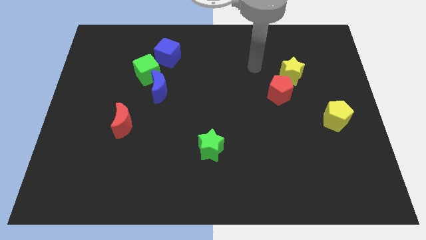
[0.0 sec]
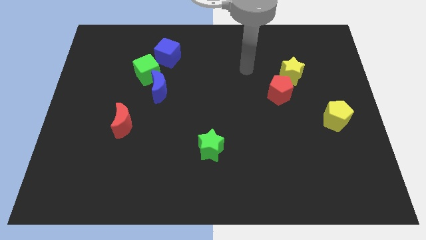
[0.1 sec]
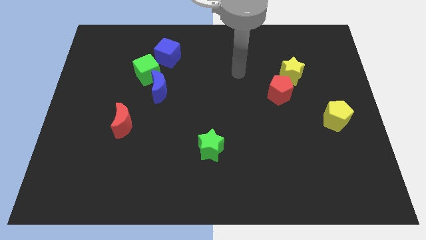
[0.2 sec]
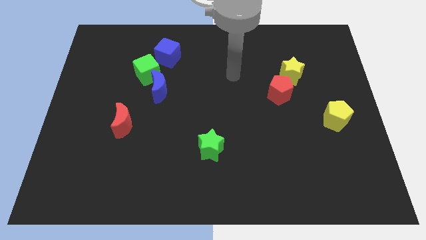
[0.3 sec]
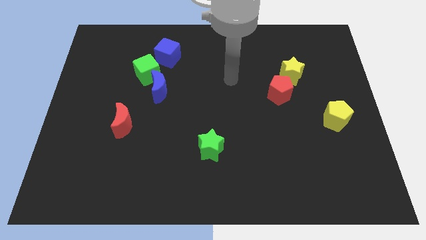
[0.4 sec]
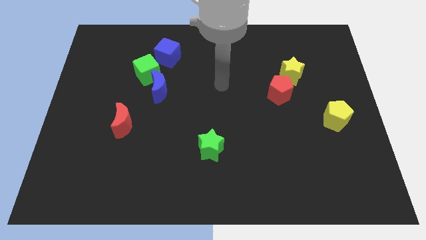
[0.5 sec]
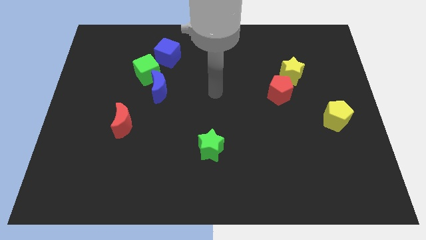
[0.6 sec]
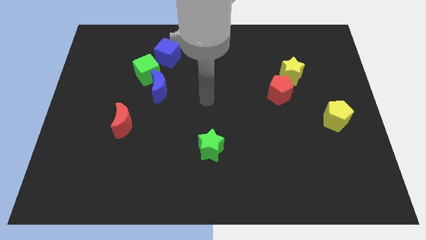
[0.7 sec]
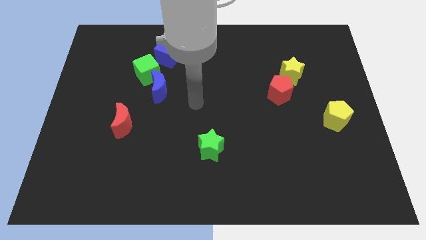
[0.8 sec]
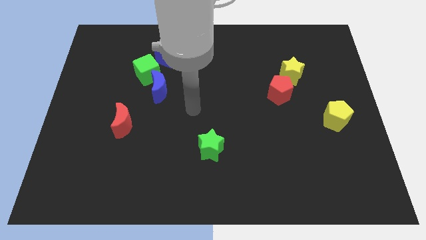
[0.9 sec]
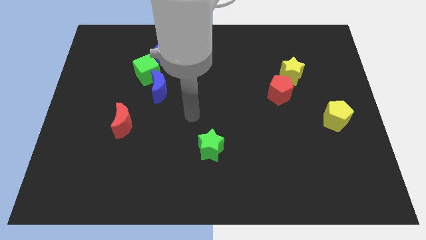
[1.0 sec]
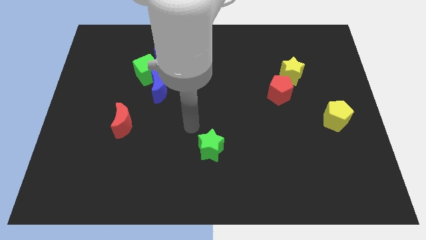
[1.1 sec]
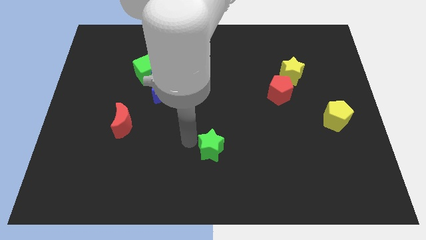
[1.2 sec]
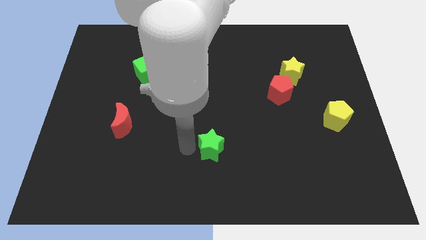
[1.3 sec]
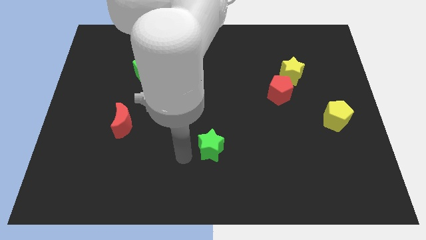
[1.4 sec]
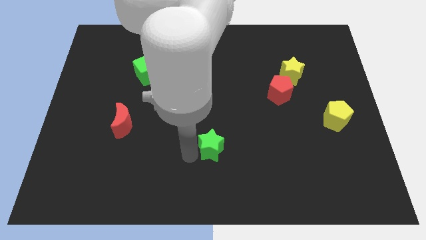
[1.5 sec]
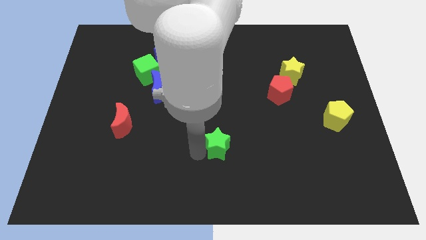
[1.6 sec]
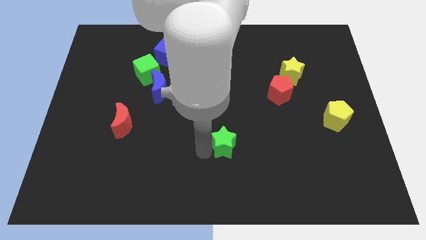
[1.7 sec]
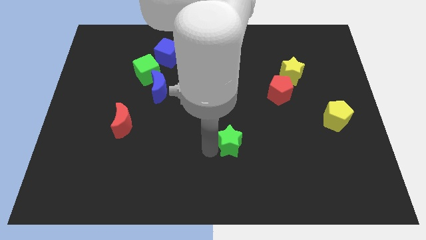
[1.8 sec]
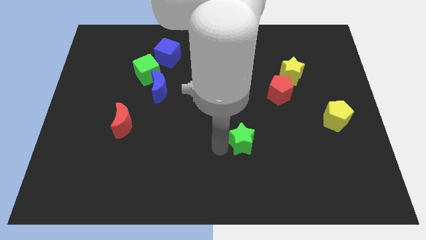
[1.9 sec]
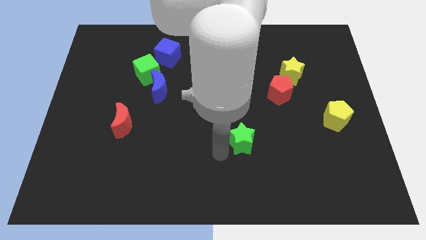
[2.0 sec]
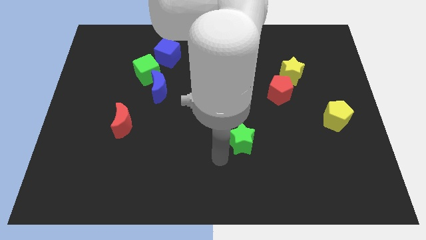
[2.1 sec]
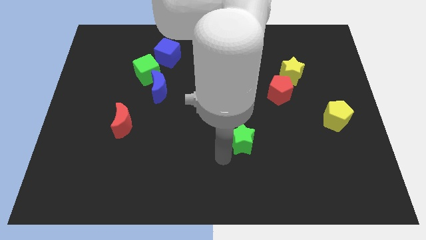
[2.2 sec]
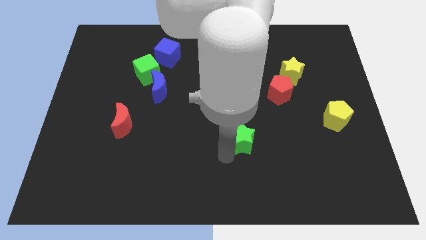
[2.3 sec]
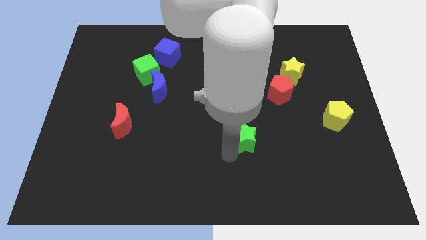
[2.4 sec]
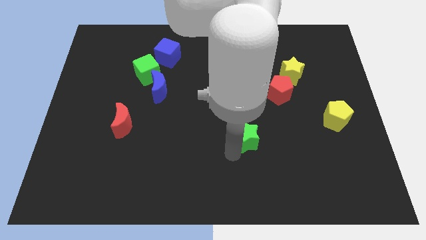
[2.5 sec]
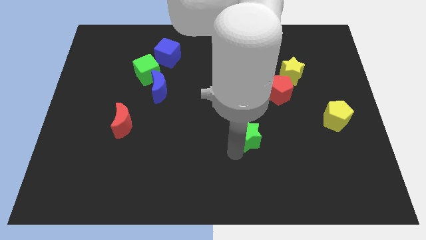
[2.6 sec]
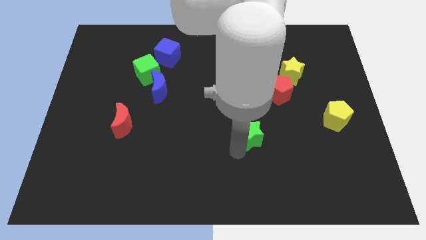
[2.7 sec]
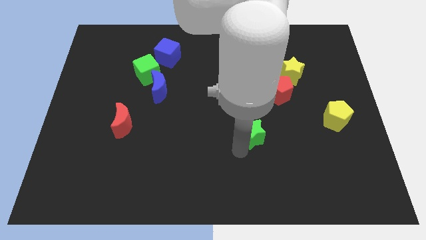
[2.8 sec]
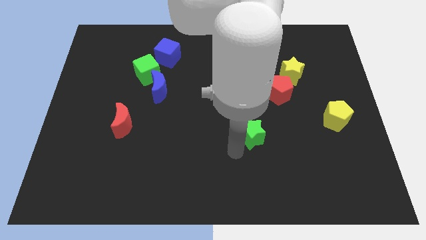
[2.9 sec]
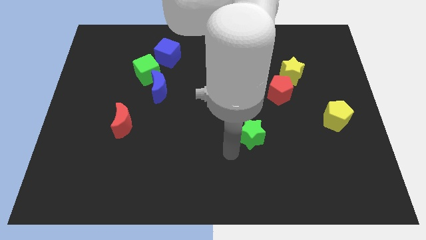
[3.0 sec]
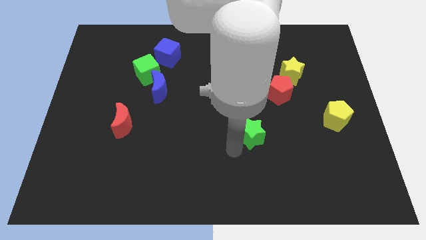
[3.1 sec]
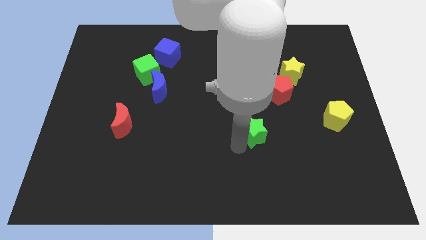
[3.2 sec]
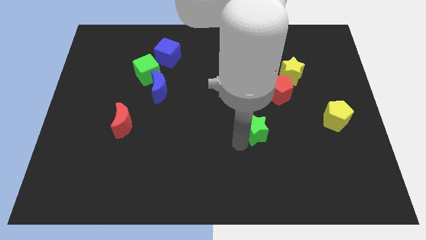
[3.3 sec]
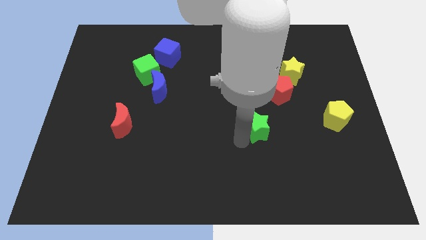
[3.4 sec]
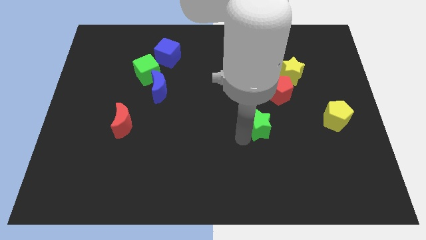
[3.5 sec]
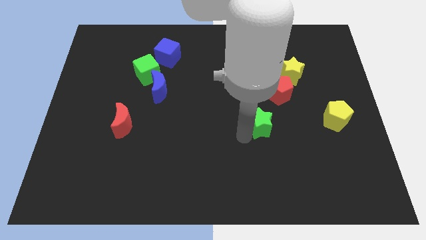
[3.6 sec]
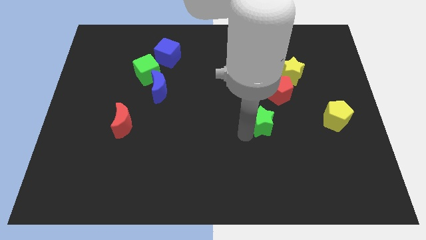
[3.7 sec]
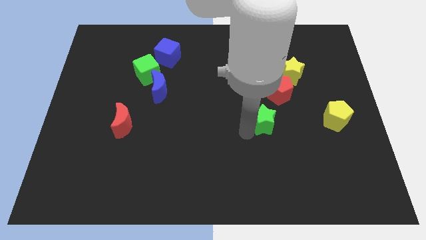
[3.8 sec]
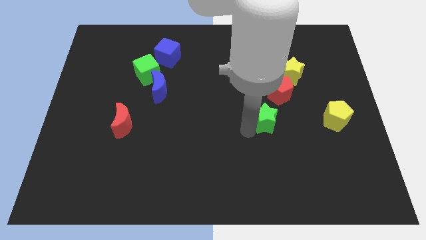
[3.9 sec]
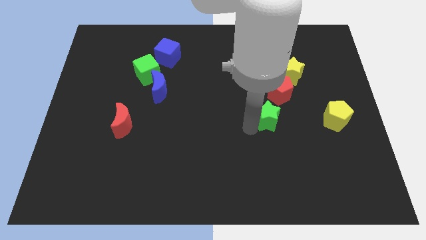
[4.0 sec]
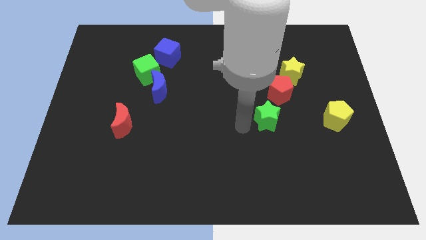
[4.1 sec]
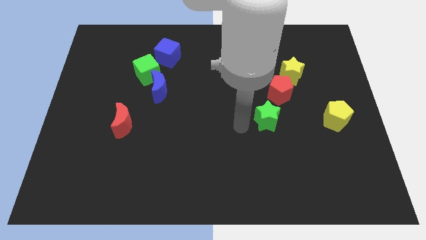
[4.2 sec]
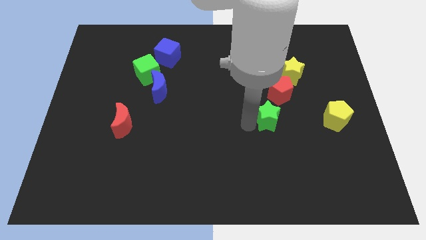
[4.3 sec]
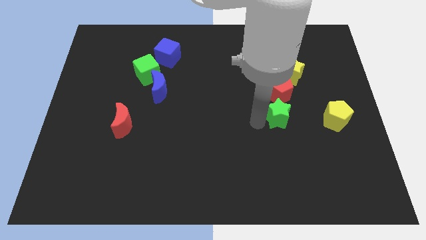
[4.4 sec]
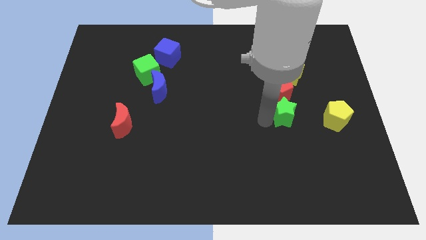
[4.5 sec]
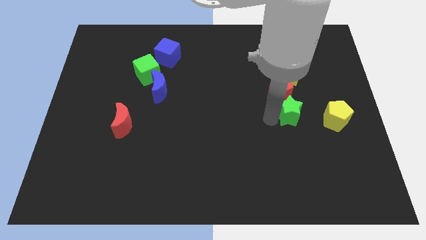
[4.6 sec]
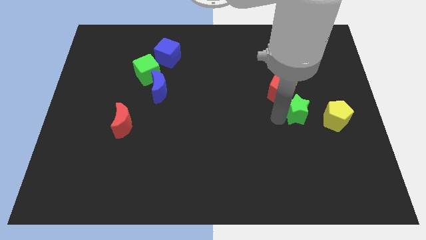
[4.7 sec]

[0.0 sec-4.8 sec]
move the green star to the top left of the yellow pentagon

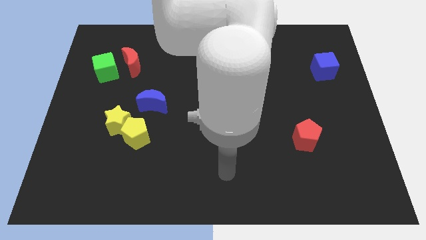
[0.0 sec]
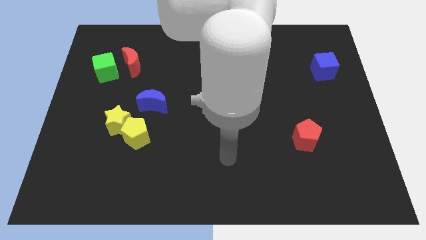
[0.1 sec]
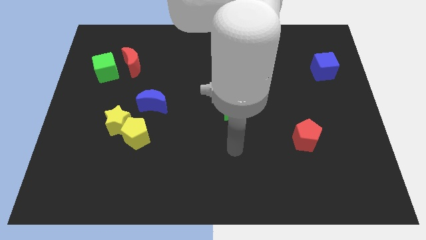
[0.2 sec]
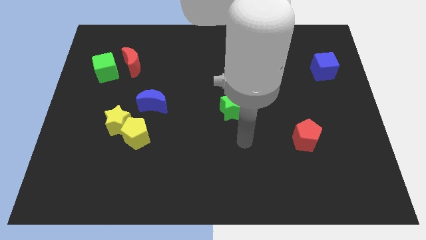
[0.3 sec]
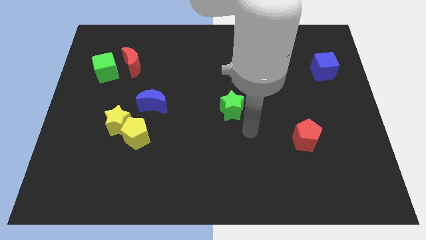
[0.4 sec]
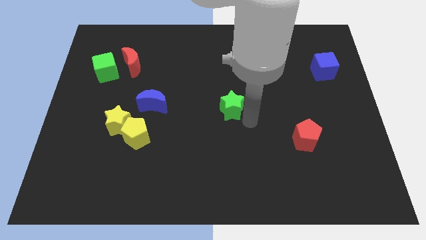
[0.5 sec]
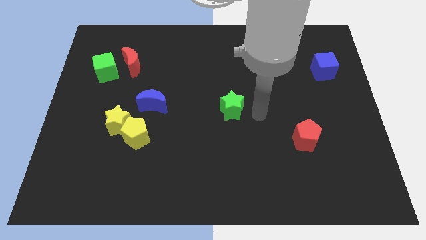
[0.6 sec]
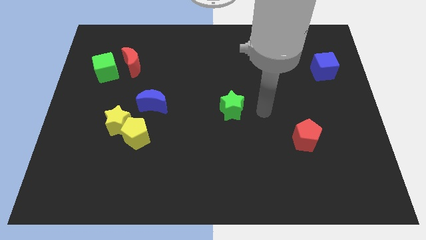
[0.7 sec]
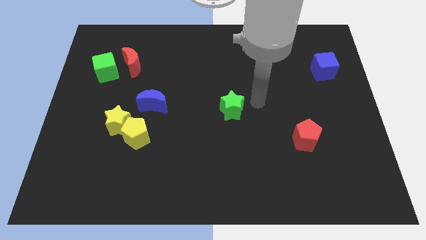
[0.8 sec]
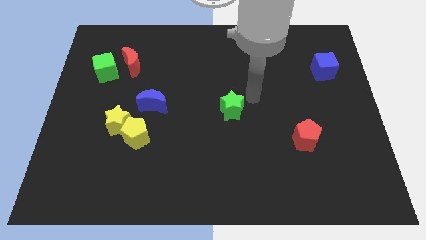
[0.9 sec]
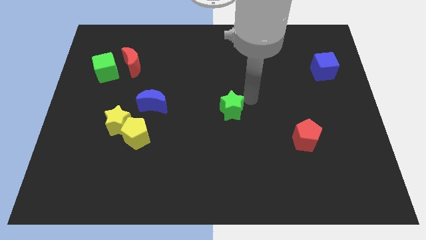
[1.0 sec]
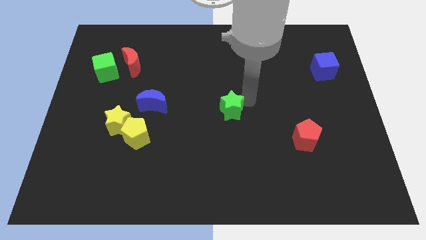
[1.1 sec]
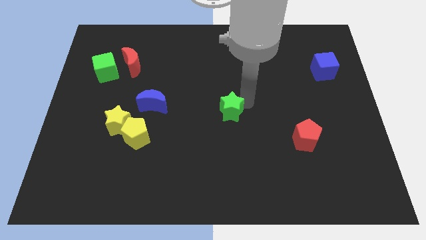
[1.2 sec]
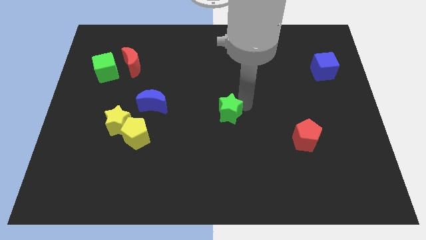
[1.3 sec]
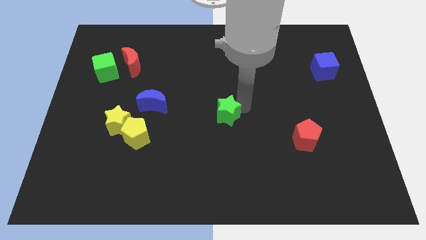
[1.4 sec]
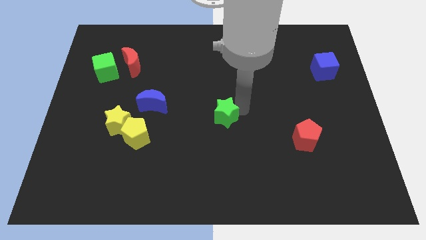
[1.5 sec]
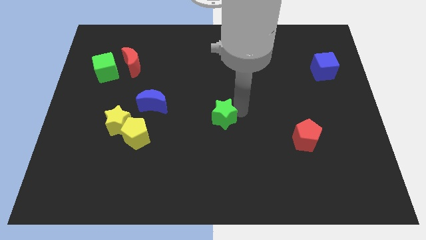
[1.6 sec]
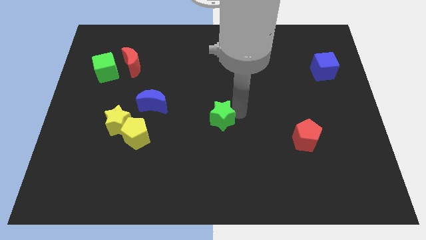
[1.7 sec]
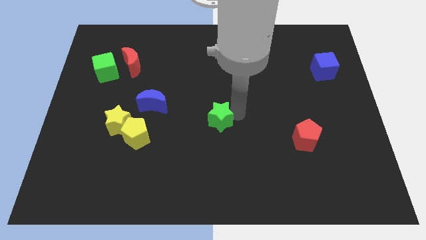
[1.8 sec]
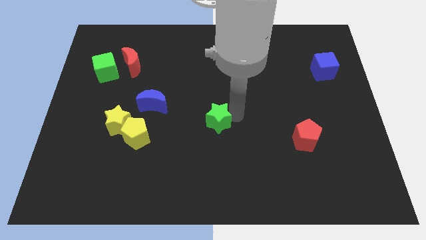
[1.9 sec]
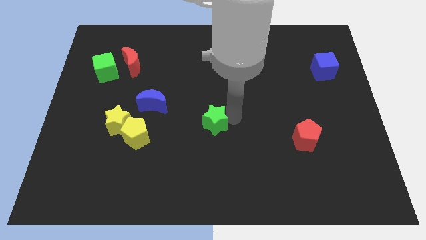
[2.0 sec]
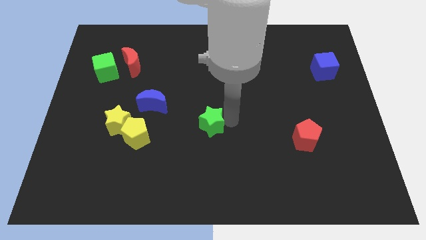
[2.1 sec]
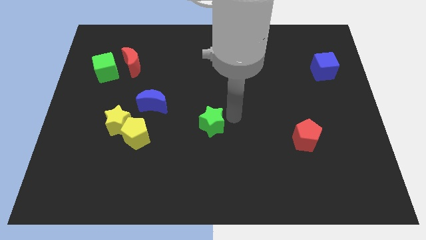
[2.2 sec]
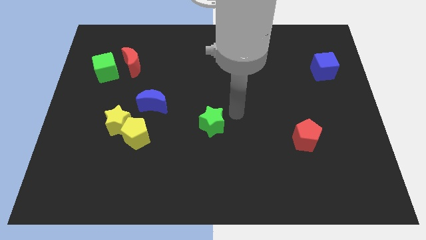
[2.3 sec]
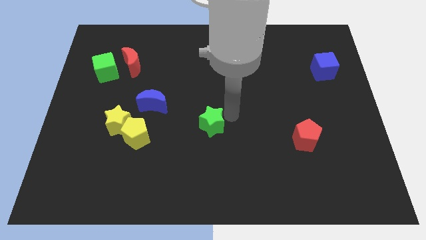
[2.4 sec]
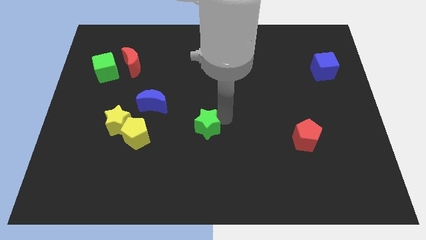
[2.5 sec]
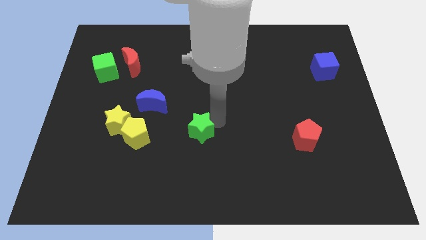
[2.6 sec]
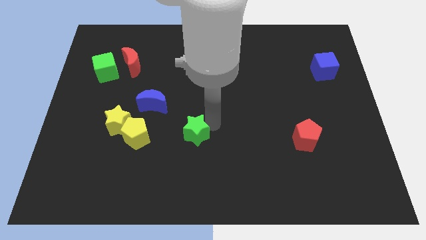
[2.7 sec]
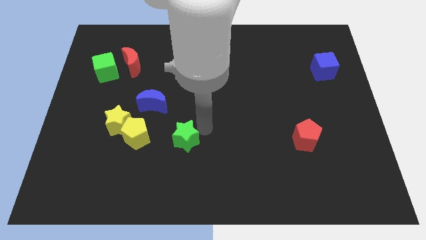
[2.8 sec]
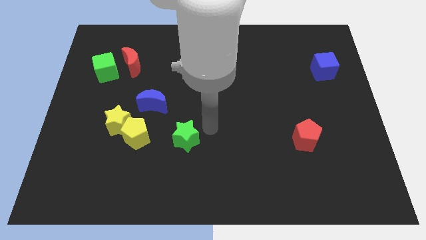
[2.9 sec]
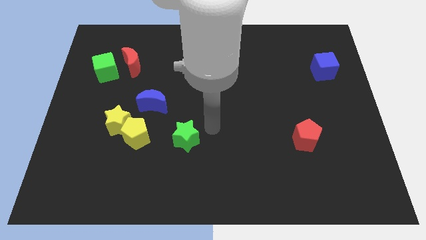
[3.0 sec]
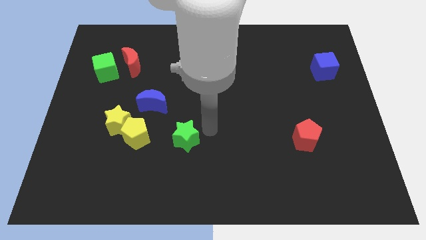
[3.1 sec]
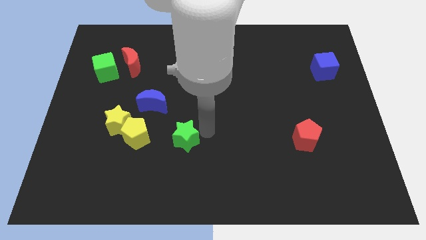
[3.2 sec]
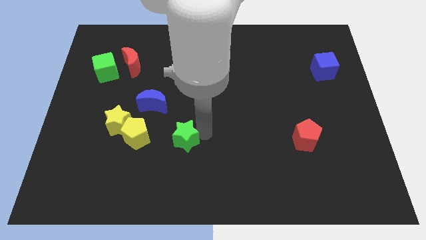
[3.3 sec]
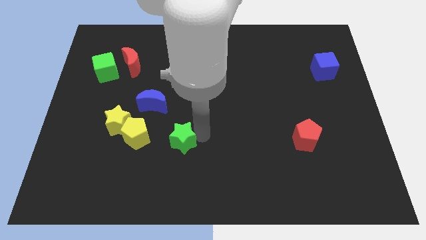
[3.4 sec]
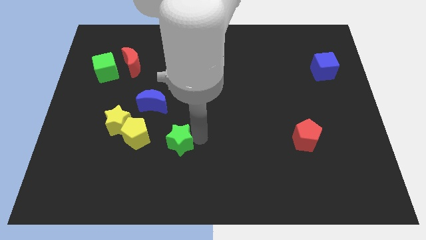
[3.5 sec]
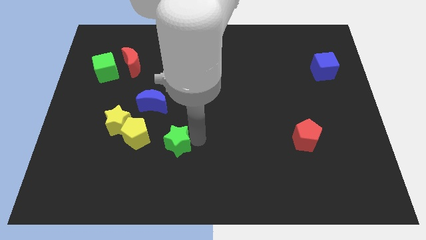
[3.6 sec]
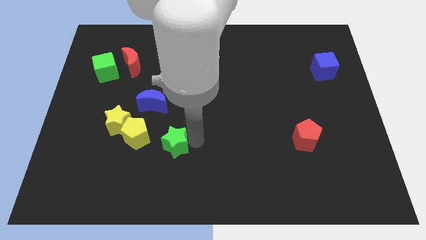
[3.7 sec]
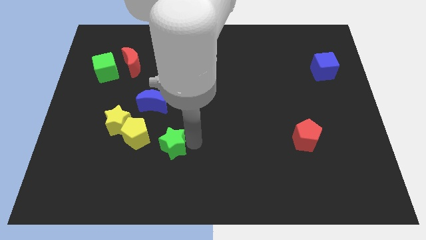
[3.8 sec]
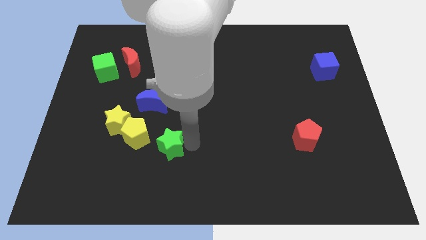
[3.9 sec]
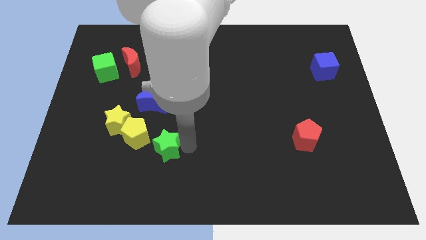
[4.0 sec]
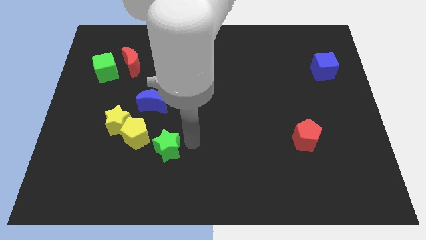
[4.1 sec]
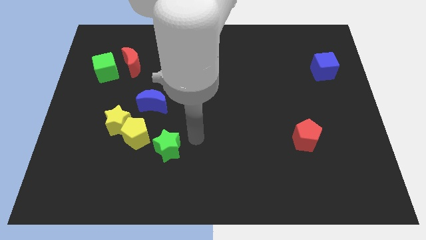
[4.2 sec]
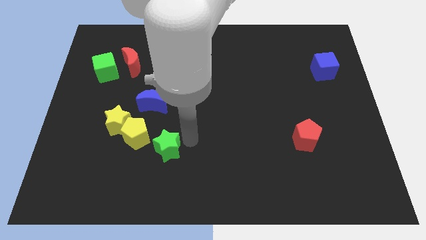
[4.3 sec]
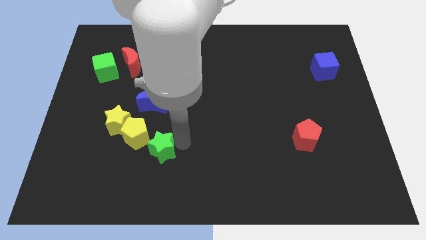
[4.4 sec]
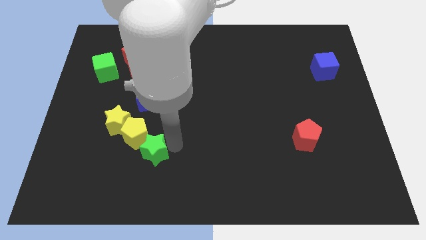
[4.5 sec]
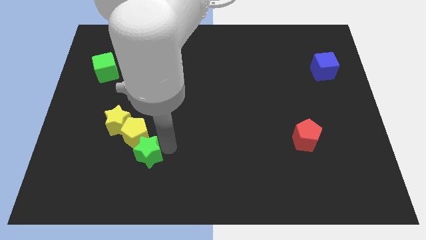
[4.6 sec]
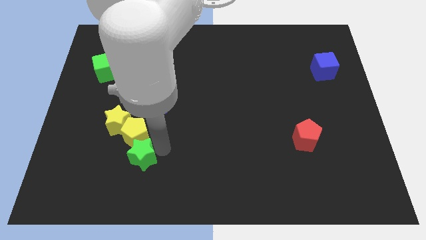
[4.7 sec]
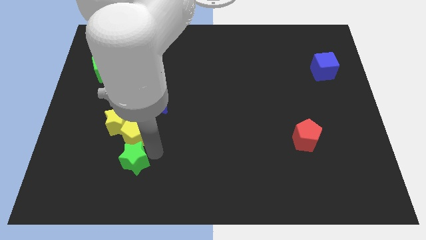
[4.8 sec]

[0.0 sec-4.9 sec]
push the green star to the bottom side of the yellow star
